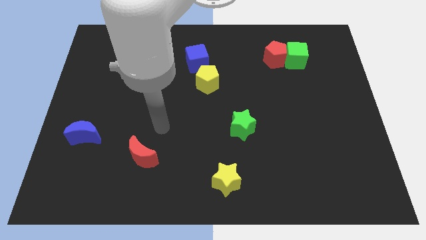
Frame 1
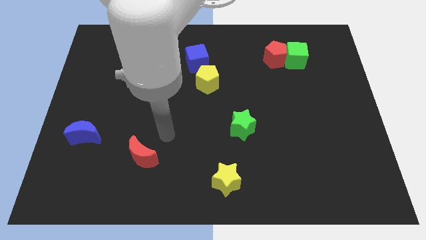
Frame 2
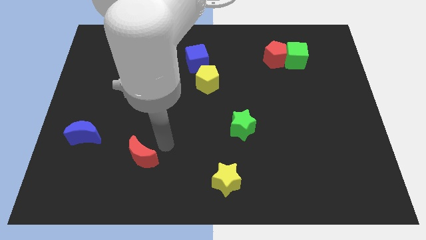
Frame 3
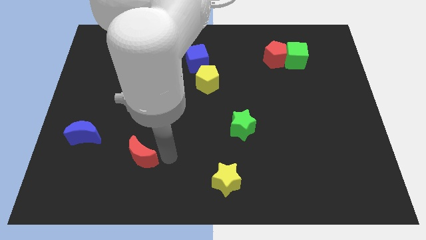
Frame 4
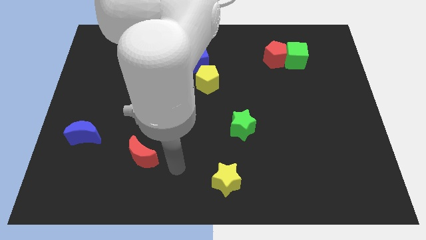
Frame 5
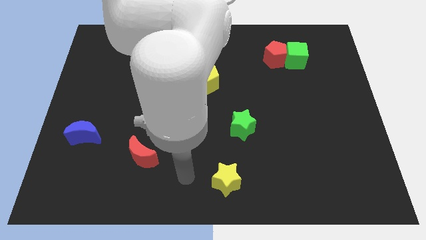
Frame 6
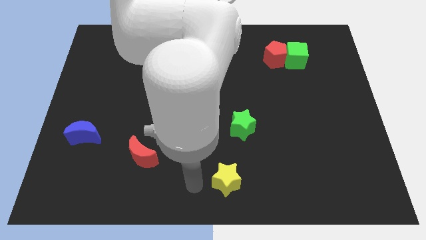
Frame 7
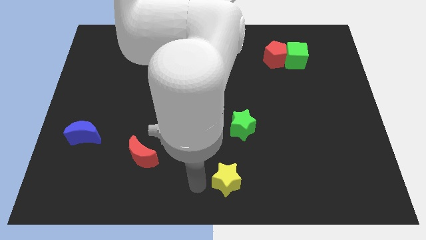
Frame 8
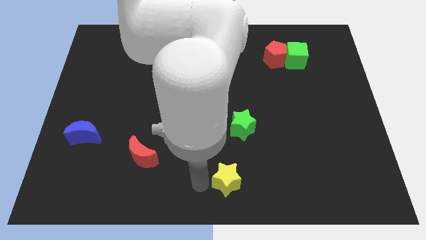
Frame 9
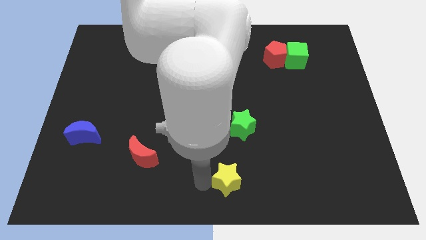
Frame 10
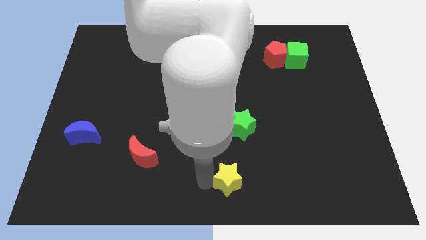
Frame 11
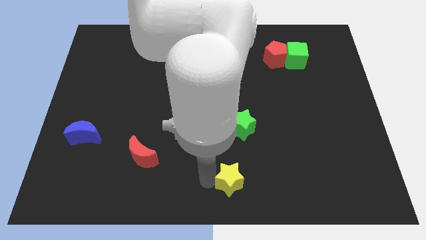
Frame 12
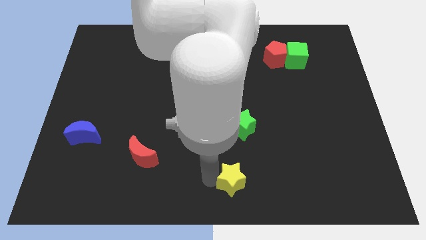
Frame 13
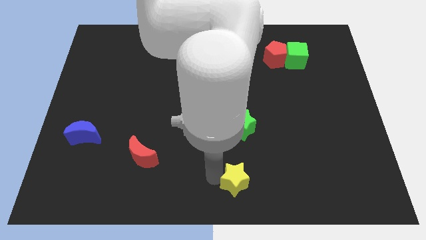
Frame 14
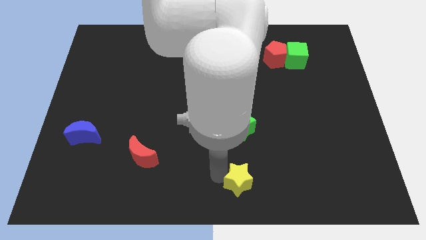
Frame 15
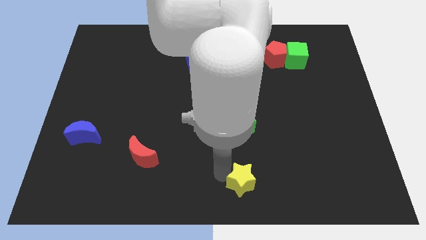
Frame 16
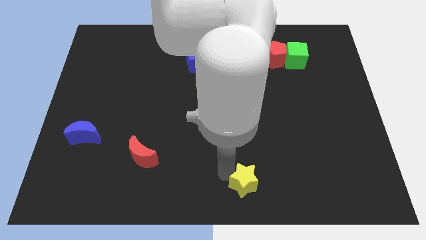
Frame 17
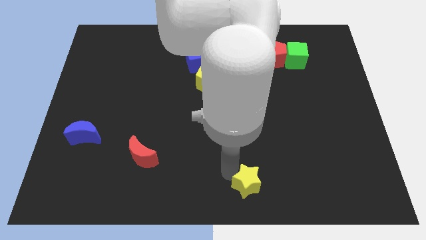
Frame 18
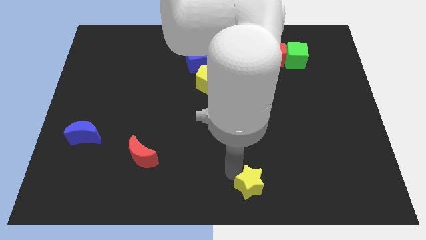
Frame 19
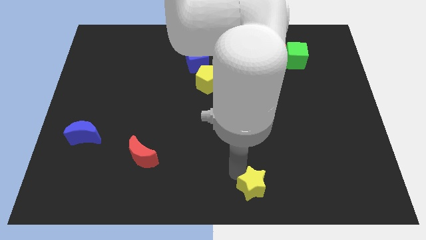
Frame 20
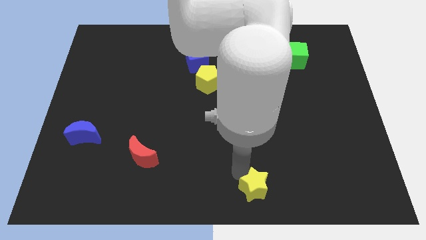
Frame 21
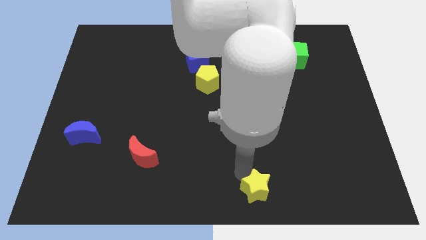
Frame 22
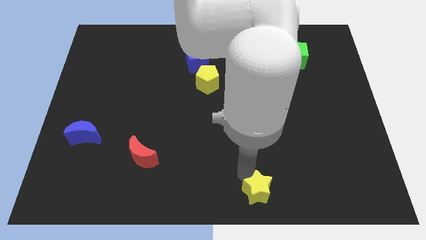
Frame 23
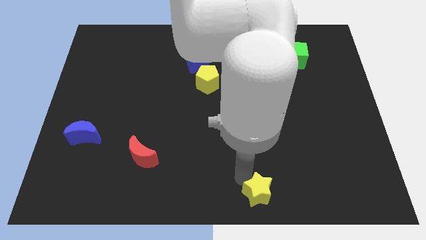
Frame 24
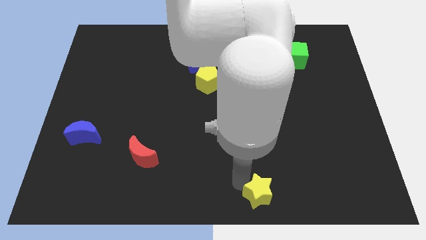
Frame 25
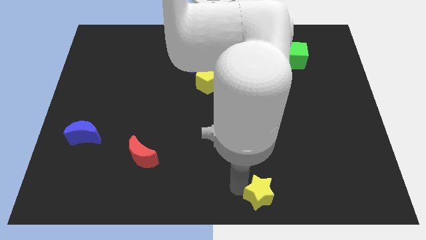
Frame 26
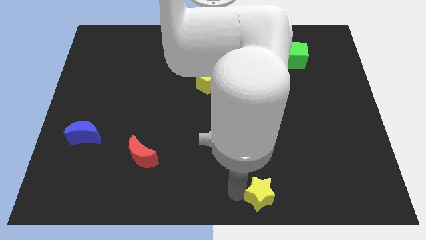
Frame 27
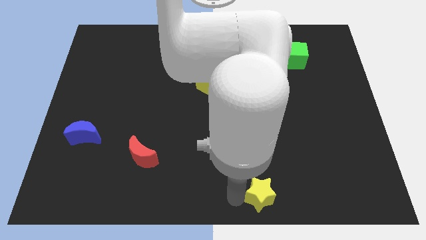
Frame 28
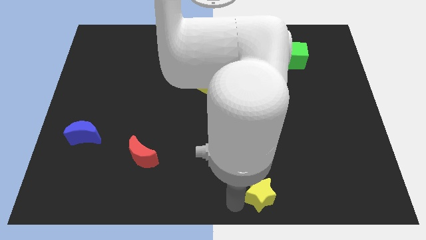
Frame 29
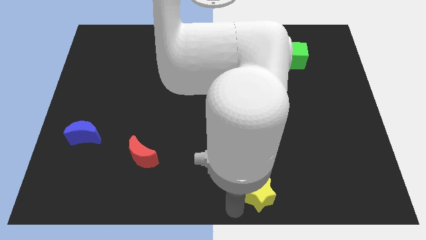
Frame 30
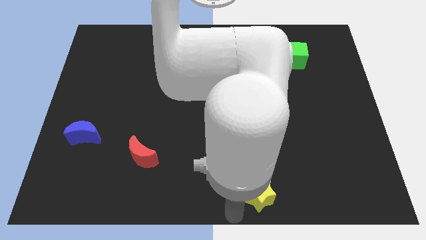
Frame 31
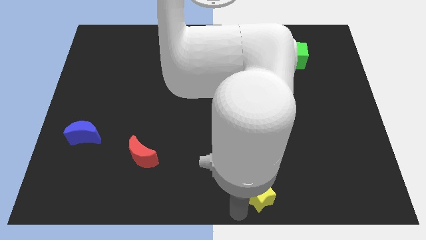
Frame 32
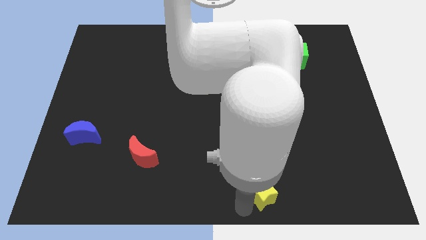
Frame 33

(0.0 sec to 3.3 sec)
move the yellow star right somewhat

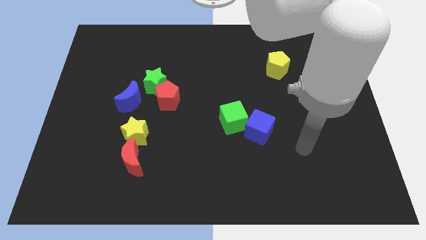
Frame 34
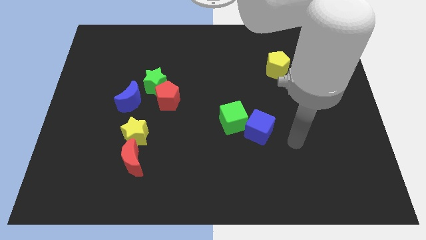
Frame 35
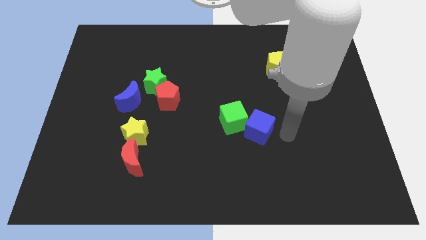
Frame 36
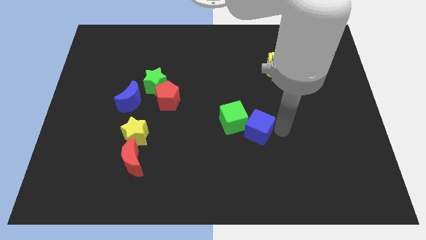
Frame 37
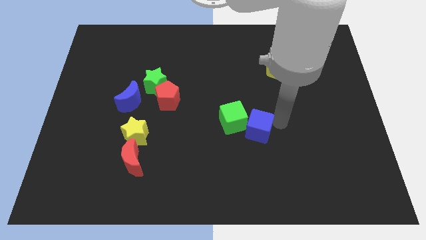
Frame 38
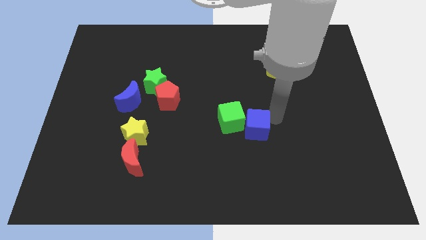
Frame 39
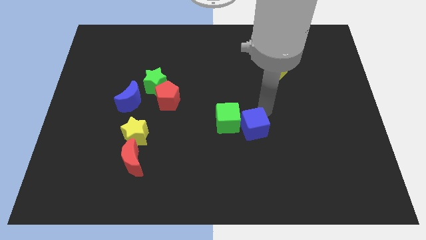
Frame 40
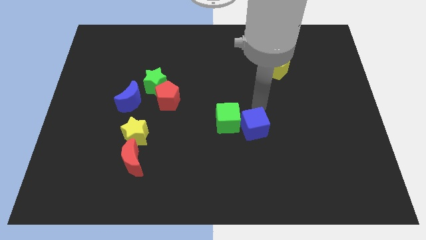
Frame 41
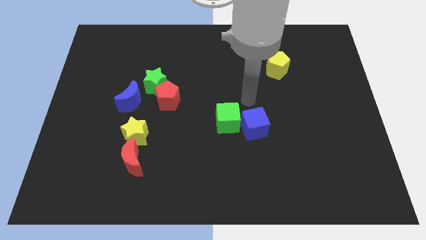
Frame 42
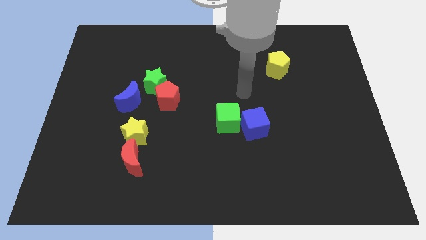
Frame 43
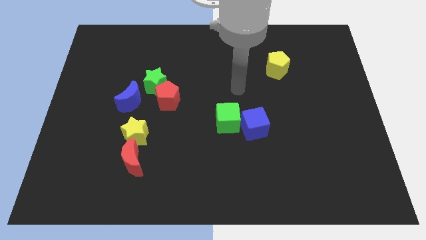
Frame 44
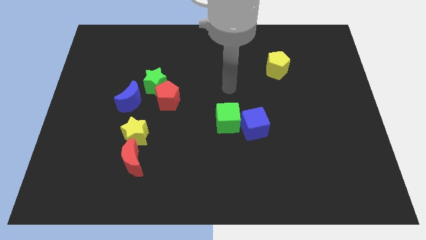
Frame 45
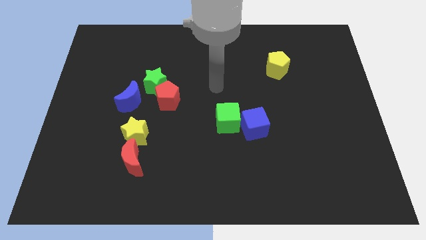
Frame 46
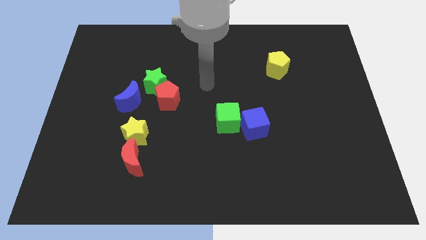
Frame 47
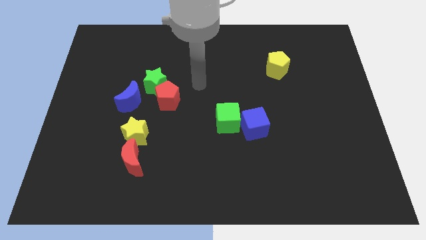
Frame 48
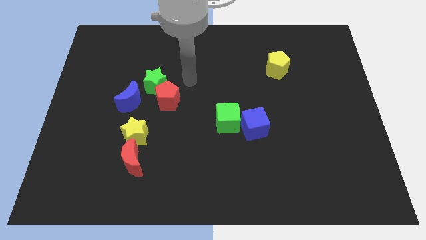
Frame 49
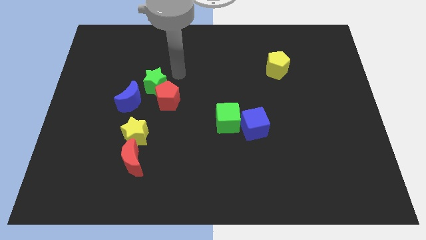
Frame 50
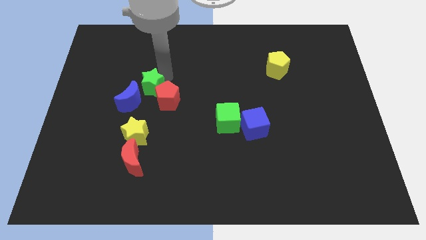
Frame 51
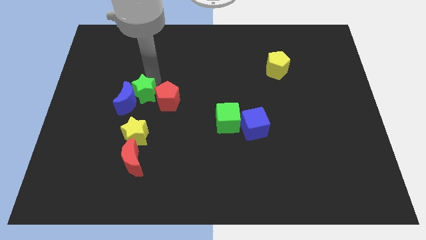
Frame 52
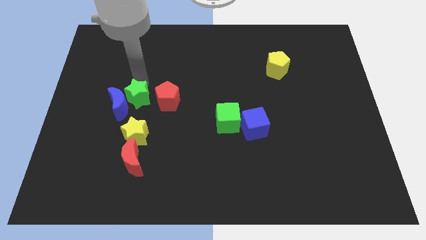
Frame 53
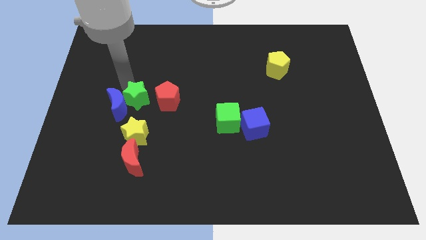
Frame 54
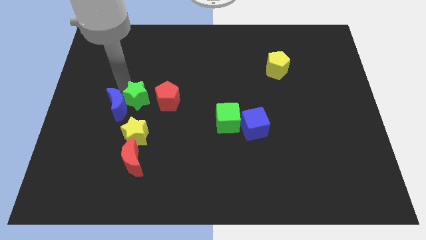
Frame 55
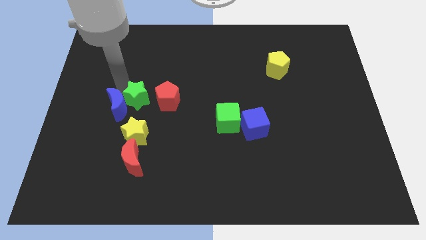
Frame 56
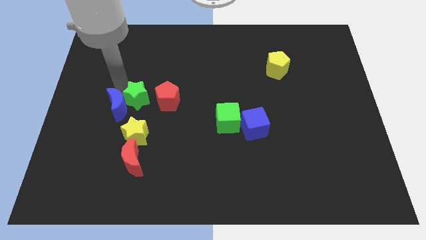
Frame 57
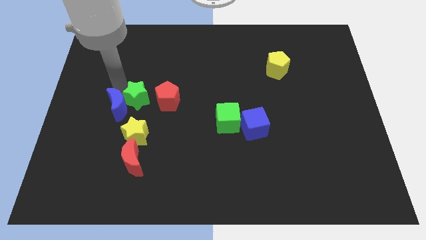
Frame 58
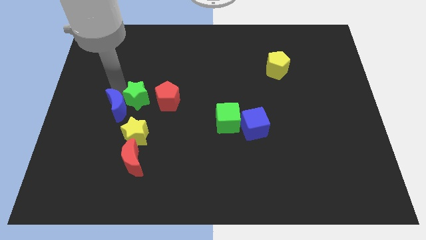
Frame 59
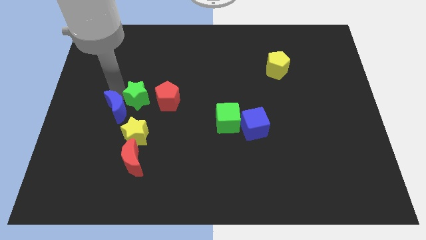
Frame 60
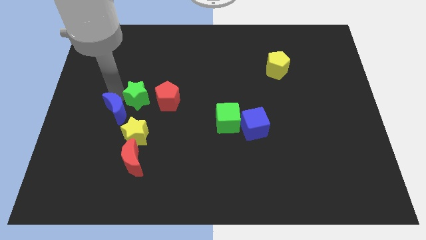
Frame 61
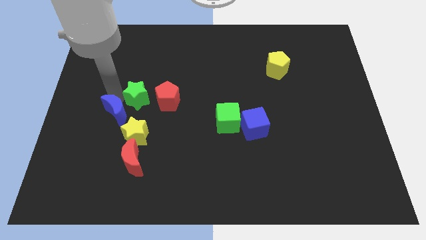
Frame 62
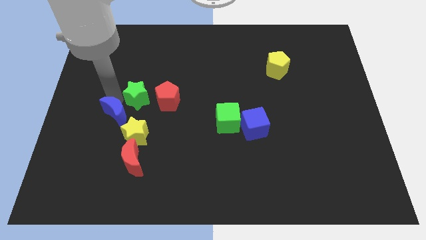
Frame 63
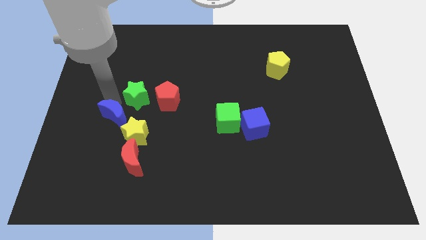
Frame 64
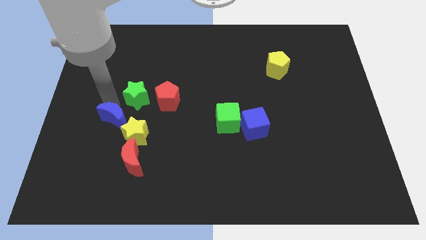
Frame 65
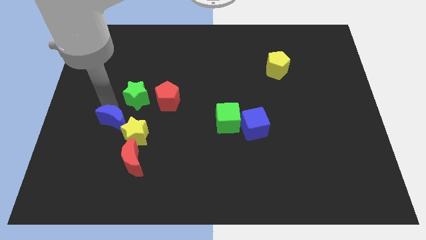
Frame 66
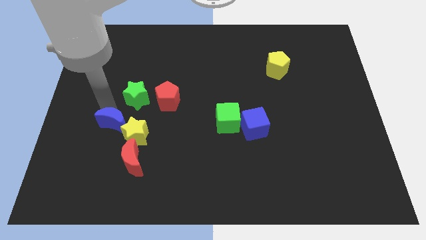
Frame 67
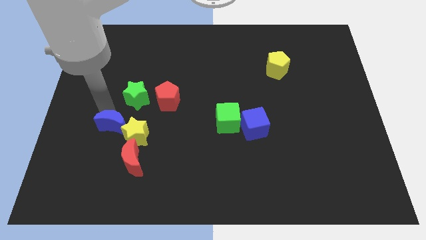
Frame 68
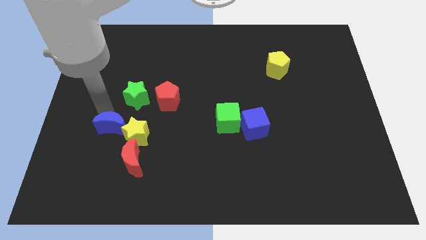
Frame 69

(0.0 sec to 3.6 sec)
slide the blue moon down a little

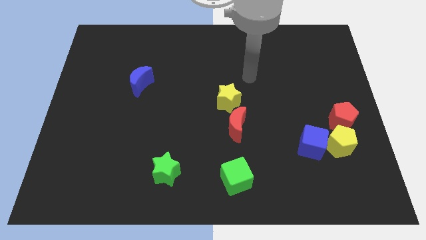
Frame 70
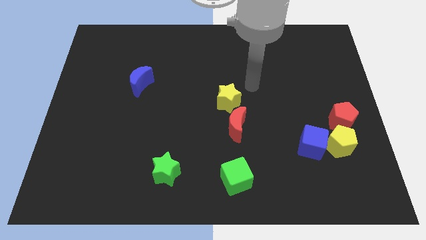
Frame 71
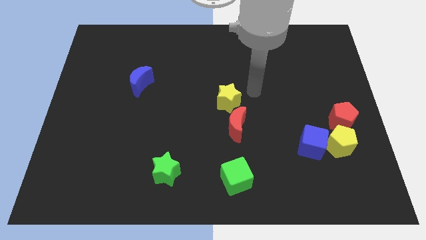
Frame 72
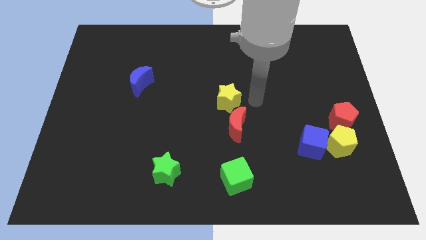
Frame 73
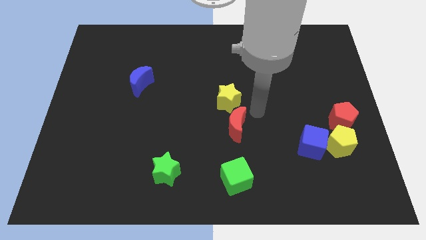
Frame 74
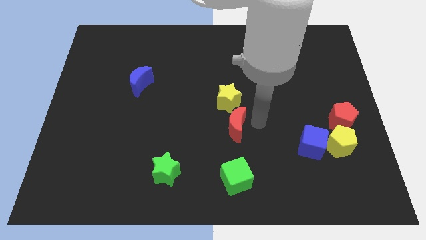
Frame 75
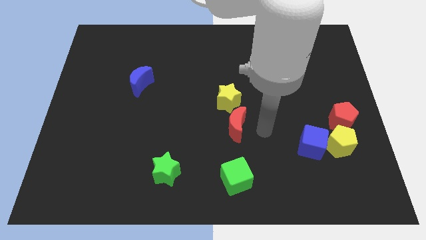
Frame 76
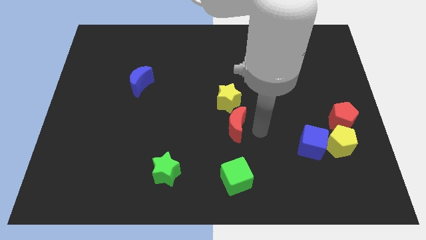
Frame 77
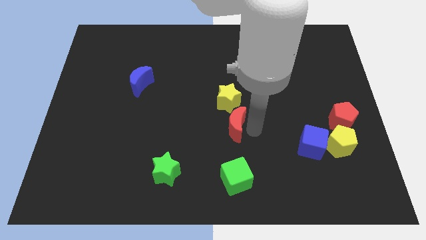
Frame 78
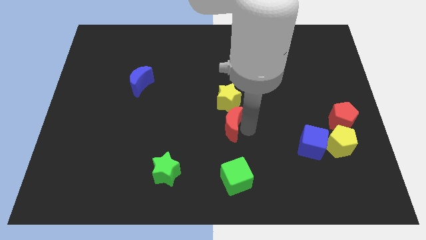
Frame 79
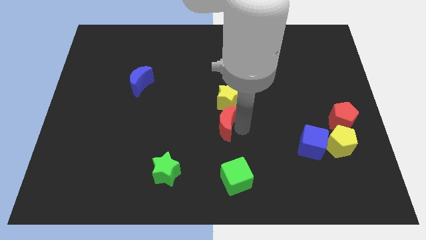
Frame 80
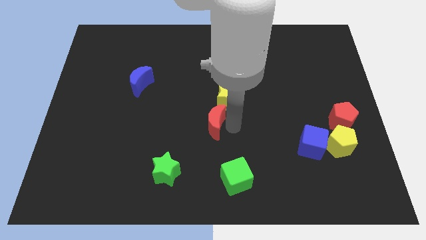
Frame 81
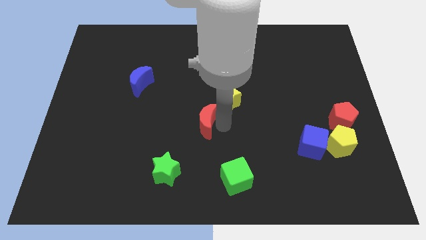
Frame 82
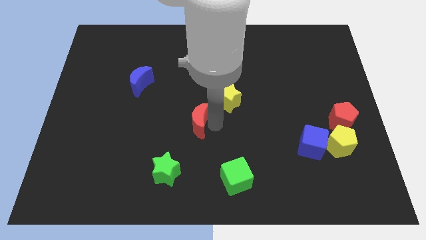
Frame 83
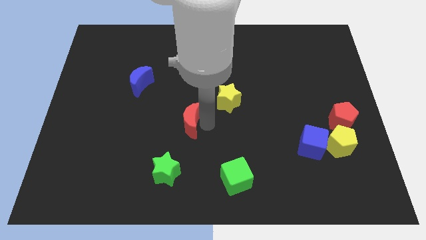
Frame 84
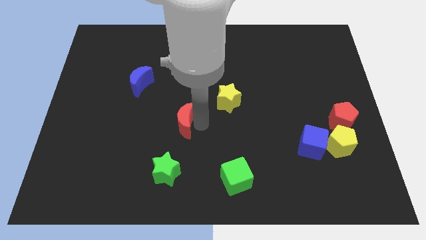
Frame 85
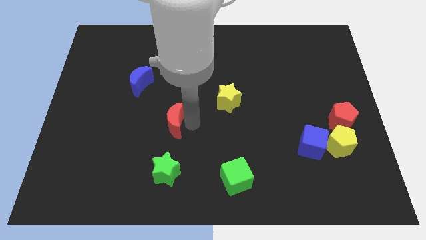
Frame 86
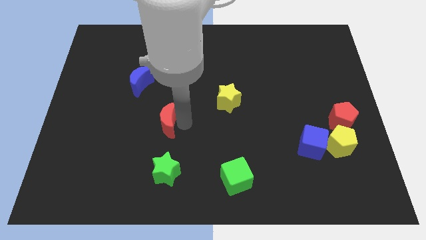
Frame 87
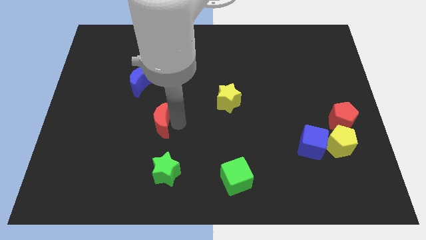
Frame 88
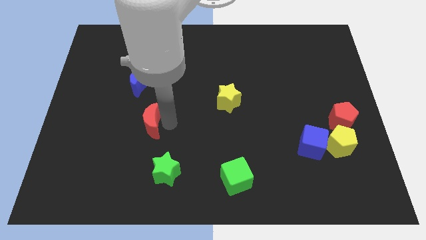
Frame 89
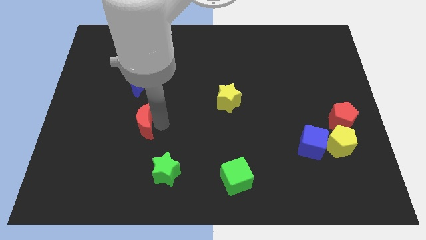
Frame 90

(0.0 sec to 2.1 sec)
push the red moon left
